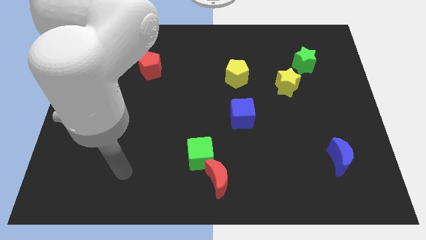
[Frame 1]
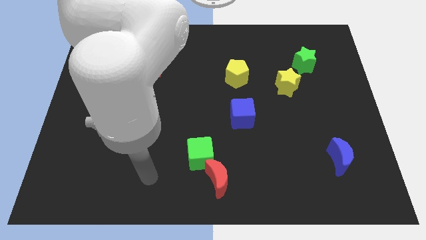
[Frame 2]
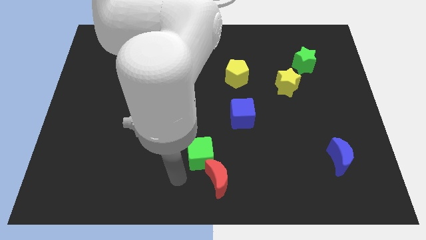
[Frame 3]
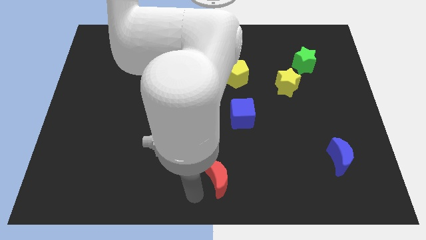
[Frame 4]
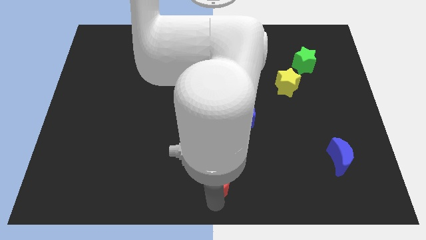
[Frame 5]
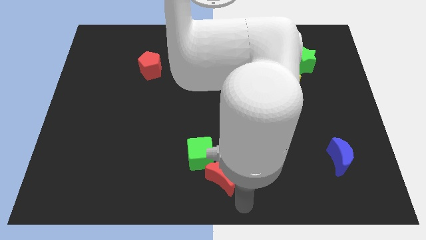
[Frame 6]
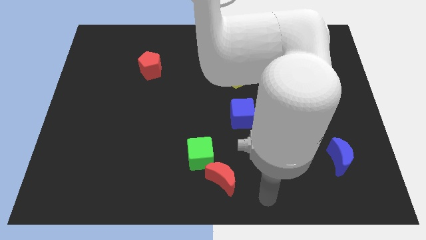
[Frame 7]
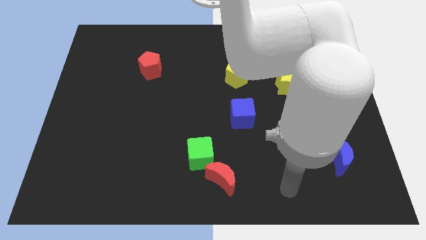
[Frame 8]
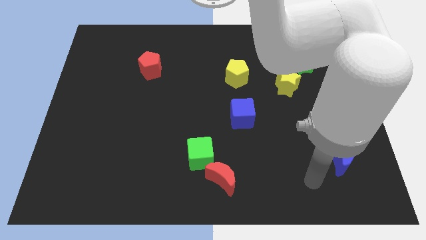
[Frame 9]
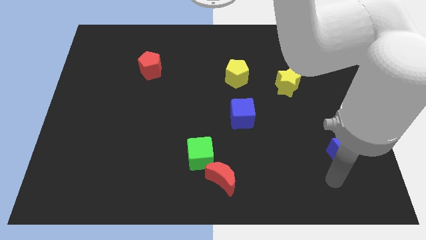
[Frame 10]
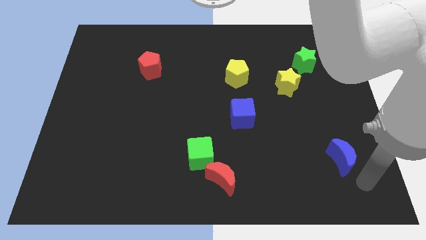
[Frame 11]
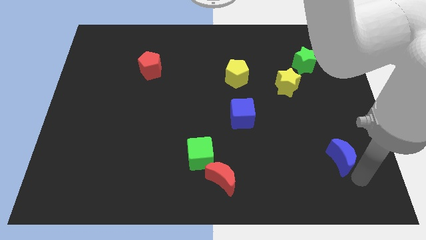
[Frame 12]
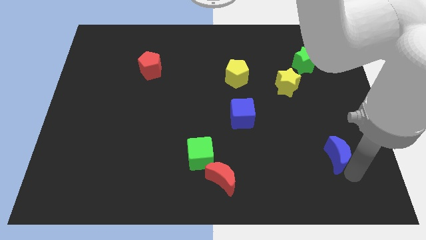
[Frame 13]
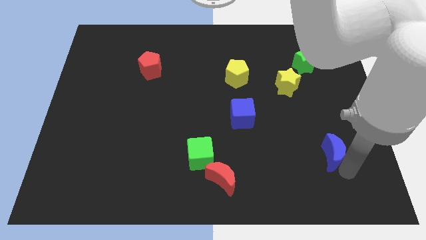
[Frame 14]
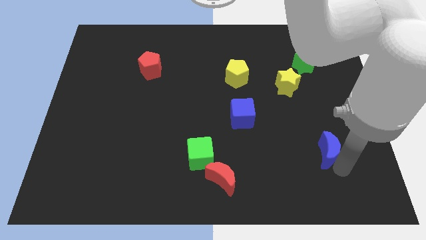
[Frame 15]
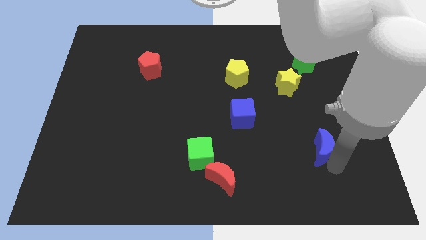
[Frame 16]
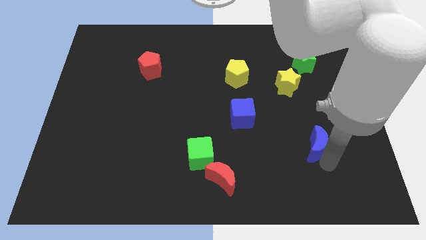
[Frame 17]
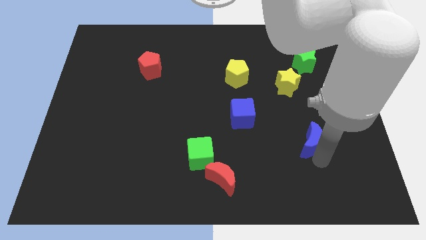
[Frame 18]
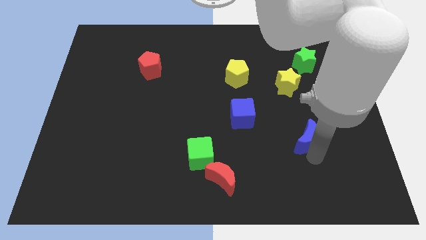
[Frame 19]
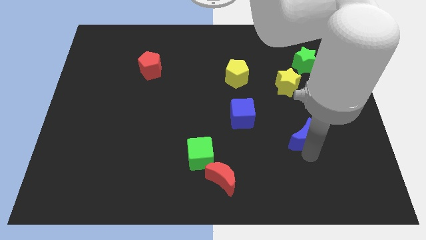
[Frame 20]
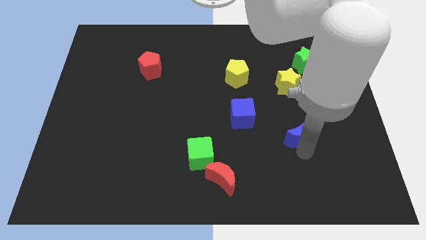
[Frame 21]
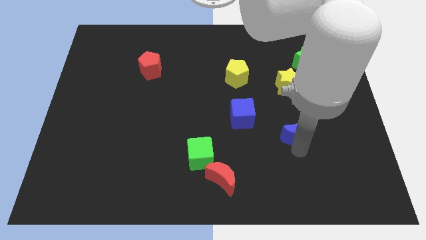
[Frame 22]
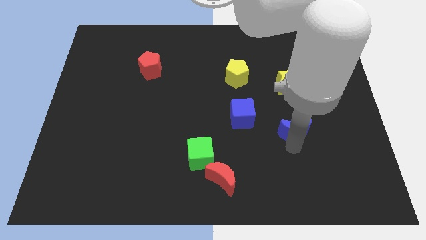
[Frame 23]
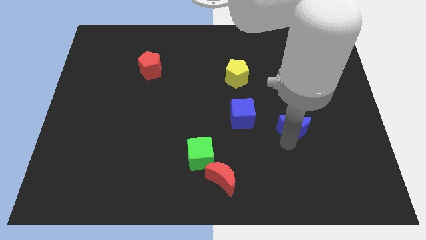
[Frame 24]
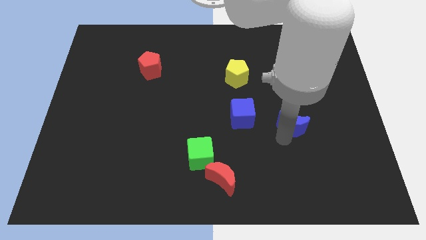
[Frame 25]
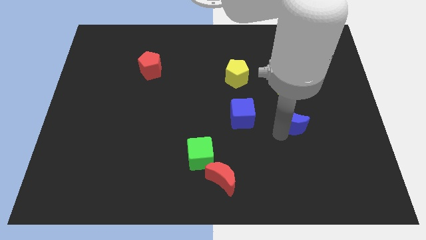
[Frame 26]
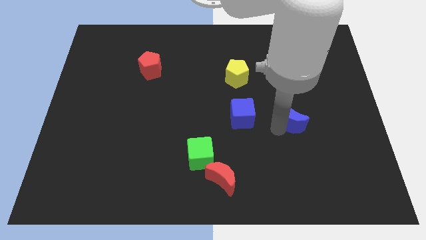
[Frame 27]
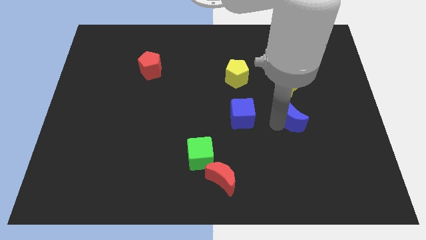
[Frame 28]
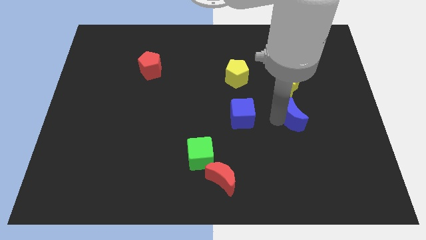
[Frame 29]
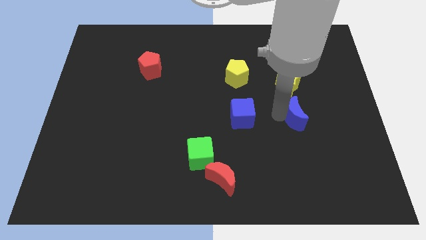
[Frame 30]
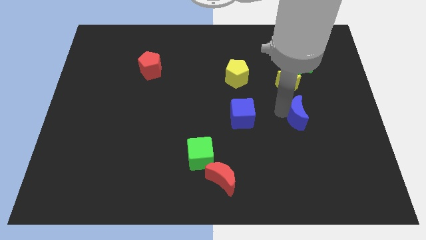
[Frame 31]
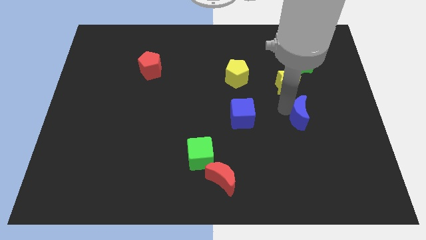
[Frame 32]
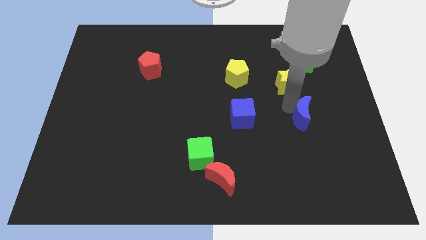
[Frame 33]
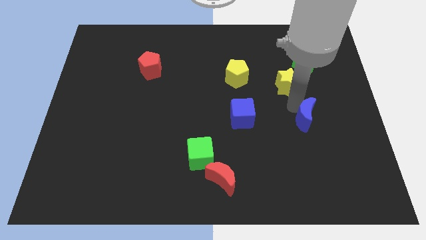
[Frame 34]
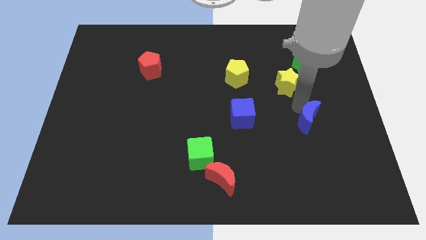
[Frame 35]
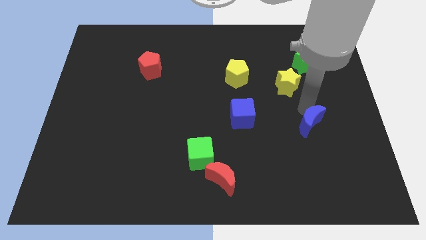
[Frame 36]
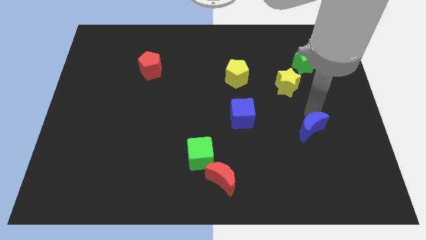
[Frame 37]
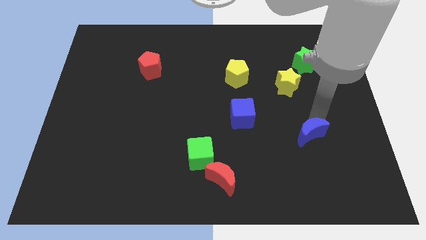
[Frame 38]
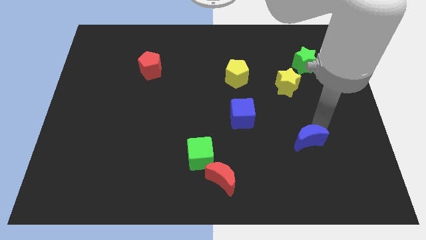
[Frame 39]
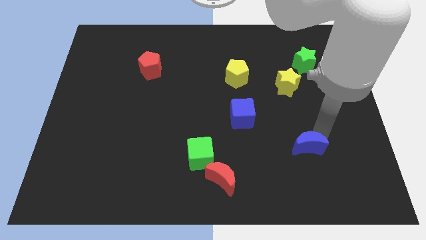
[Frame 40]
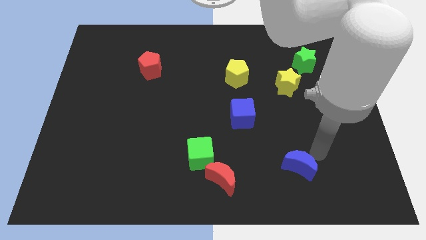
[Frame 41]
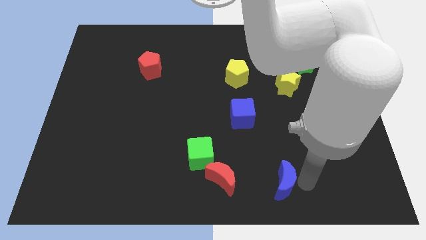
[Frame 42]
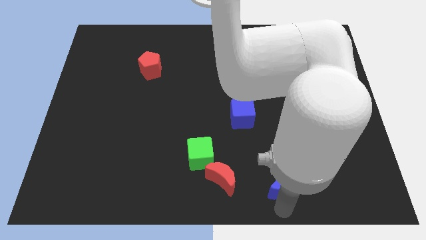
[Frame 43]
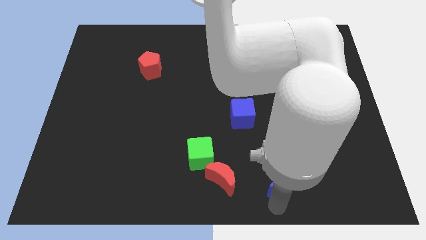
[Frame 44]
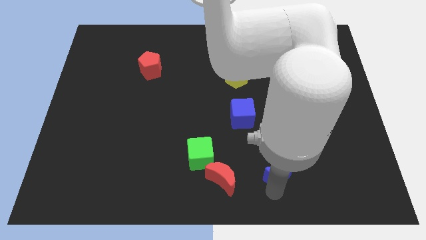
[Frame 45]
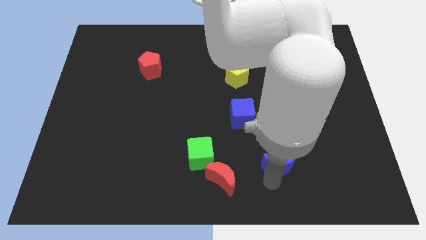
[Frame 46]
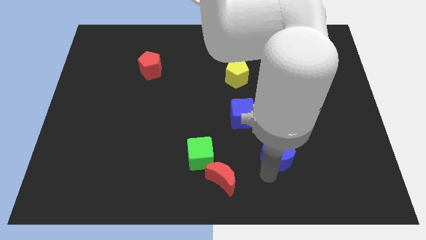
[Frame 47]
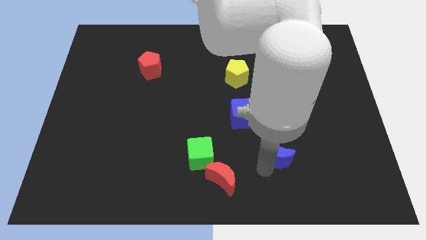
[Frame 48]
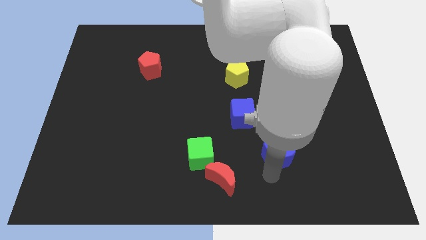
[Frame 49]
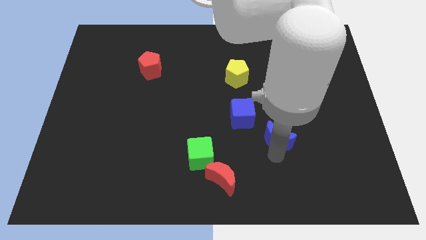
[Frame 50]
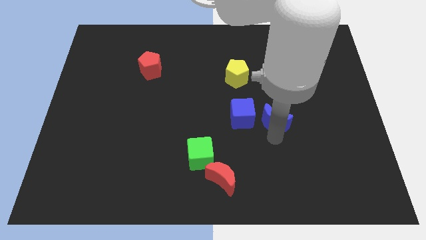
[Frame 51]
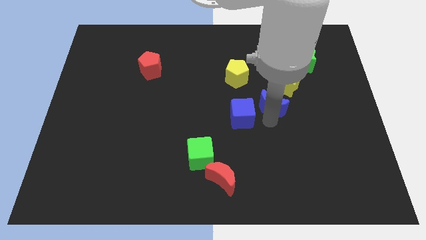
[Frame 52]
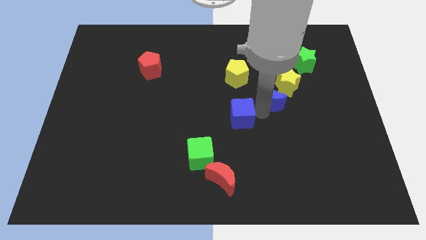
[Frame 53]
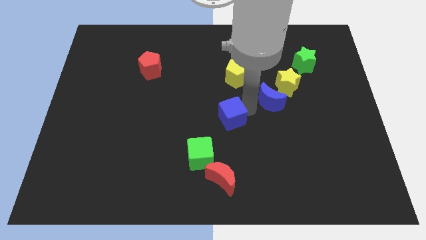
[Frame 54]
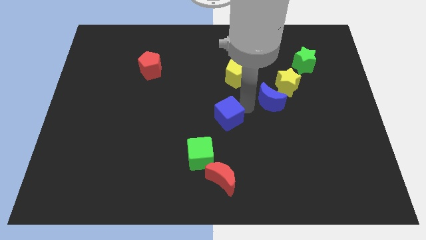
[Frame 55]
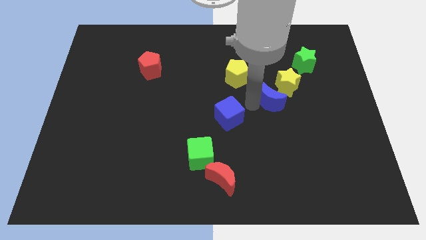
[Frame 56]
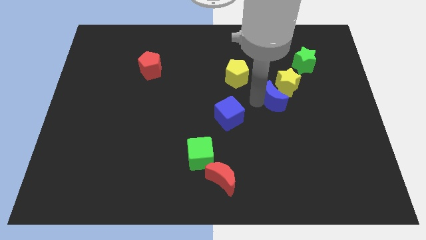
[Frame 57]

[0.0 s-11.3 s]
push the blue moon close to the yellow star

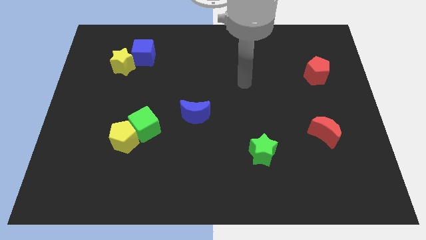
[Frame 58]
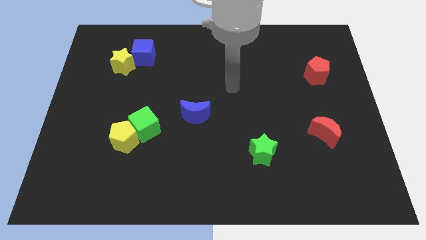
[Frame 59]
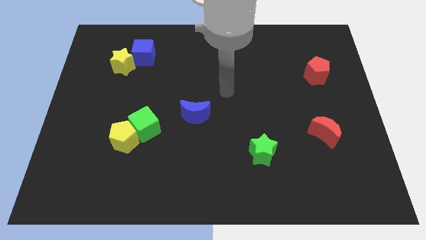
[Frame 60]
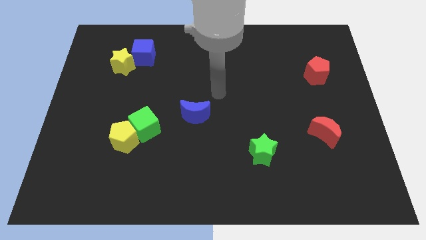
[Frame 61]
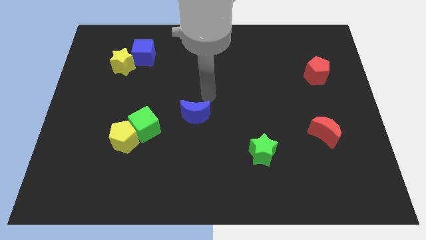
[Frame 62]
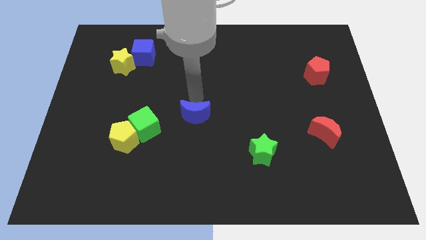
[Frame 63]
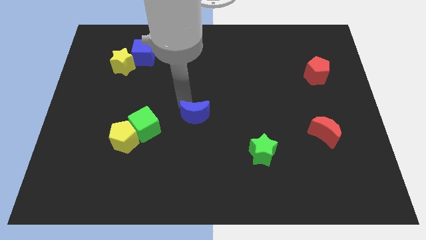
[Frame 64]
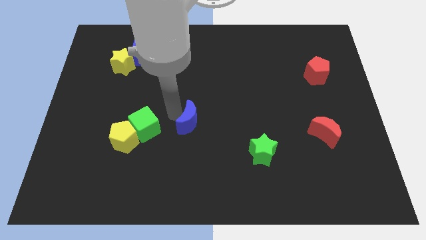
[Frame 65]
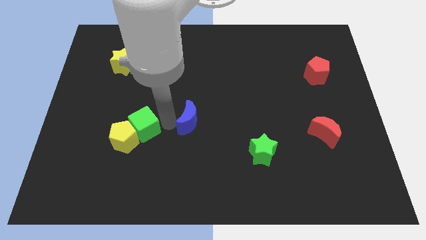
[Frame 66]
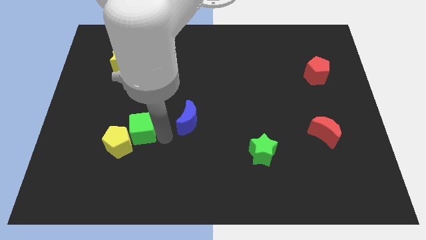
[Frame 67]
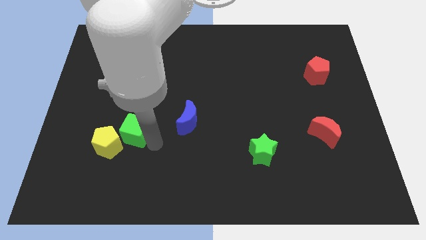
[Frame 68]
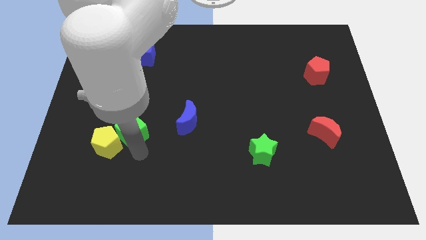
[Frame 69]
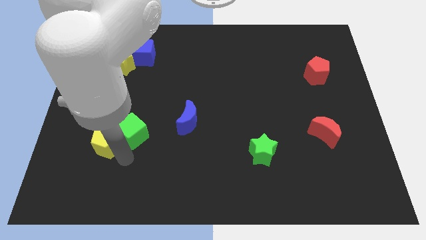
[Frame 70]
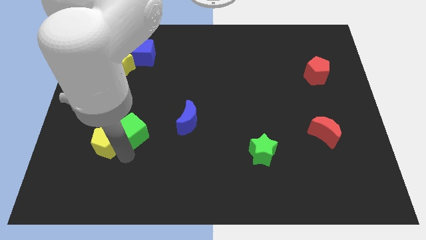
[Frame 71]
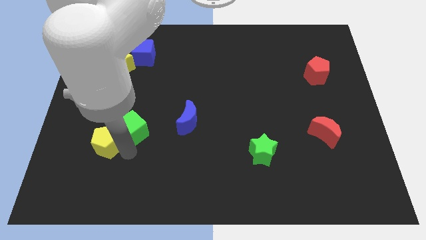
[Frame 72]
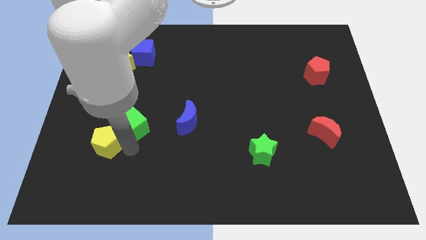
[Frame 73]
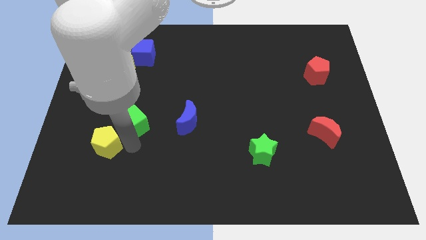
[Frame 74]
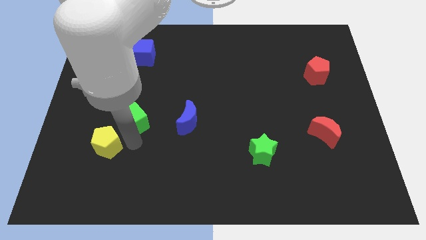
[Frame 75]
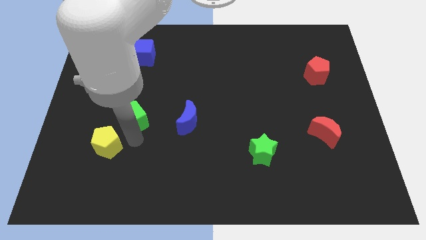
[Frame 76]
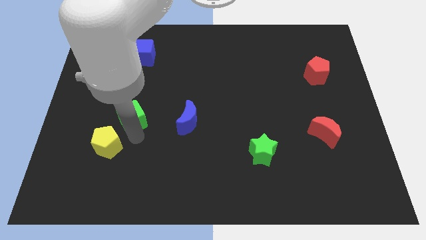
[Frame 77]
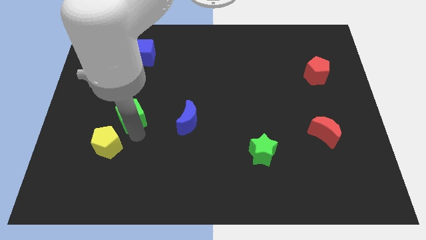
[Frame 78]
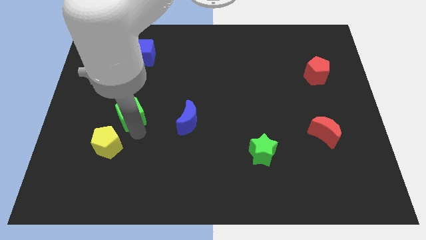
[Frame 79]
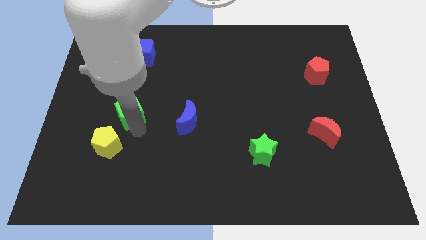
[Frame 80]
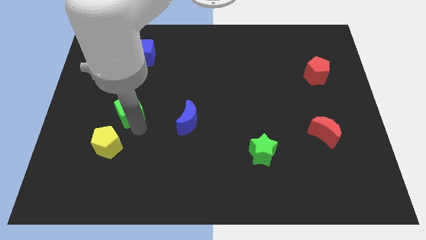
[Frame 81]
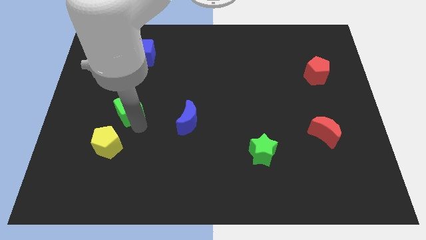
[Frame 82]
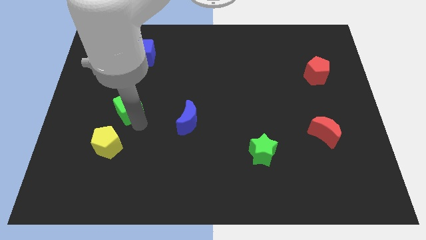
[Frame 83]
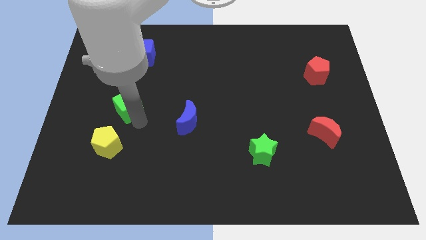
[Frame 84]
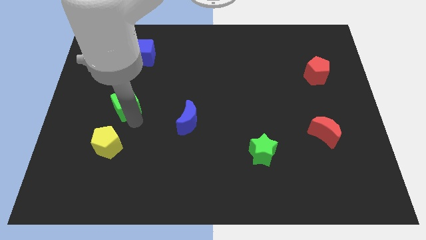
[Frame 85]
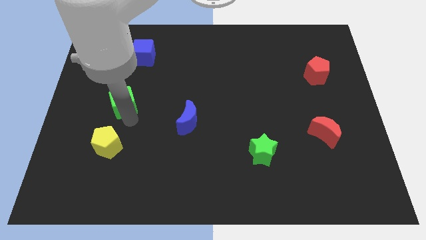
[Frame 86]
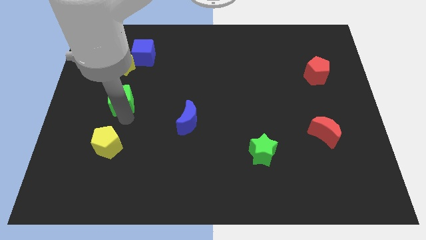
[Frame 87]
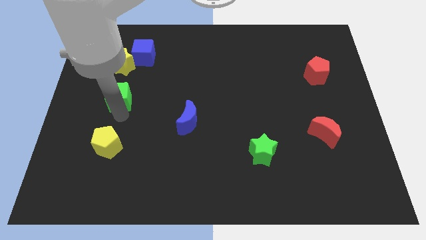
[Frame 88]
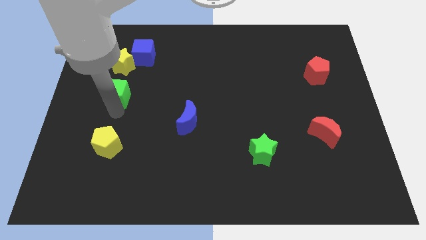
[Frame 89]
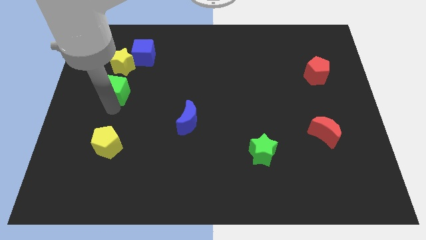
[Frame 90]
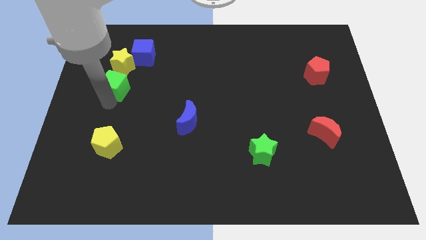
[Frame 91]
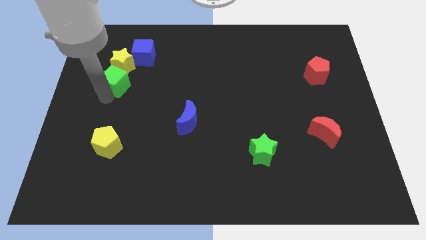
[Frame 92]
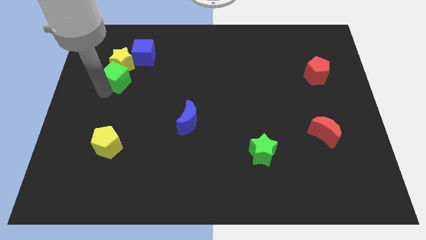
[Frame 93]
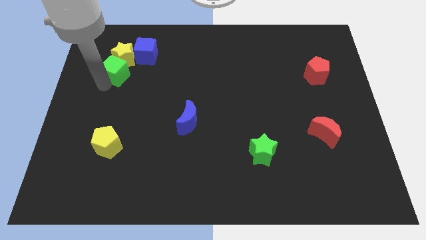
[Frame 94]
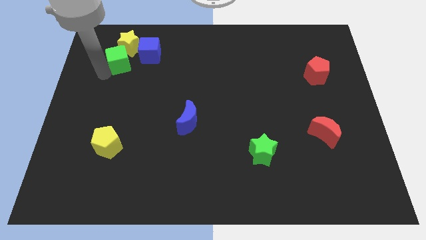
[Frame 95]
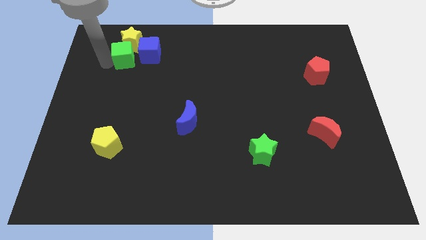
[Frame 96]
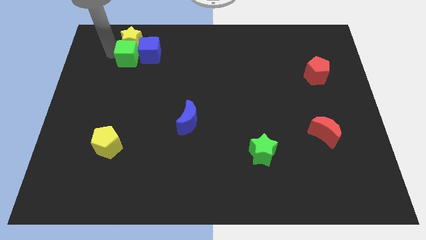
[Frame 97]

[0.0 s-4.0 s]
put the green cube close to the blue cube
